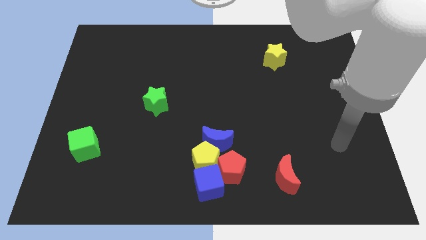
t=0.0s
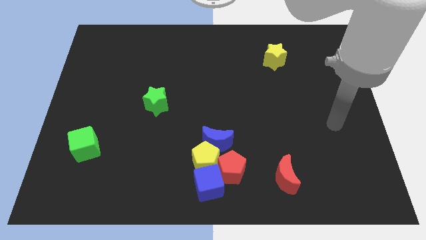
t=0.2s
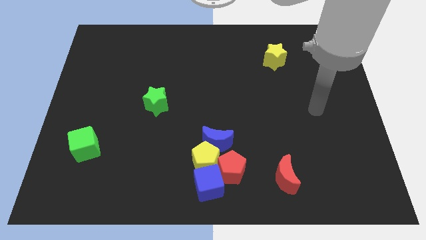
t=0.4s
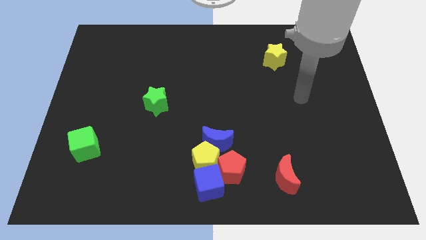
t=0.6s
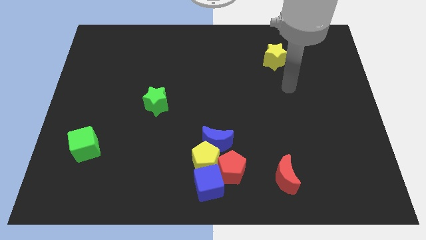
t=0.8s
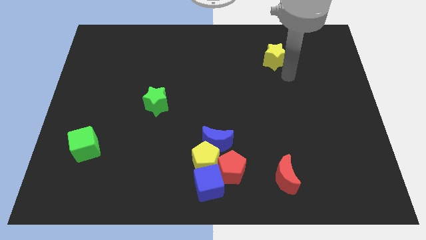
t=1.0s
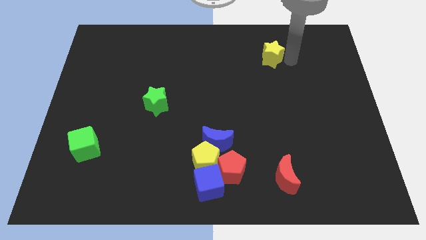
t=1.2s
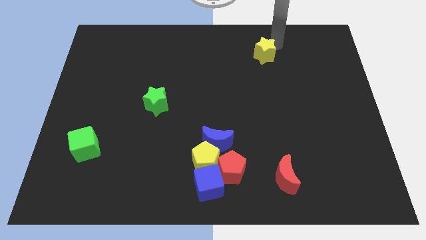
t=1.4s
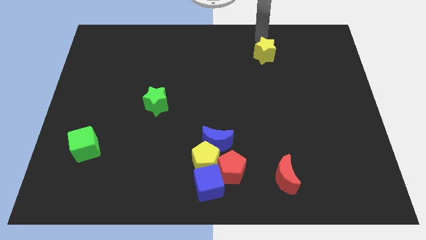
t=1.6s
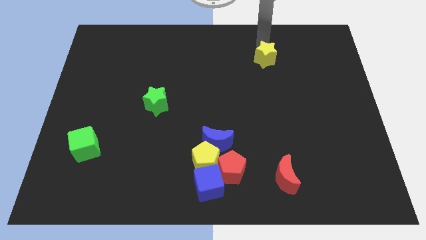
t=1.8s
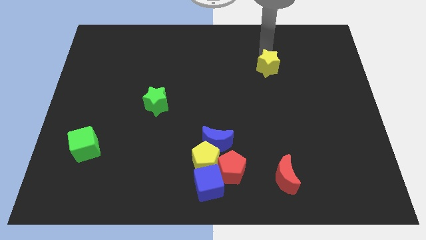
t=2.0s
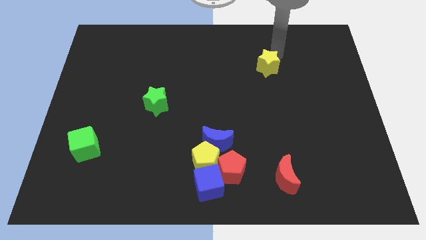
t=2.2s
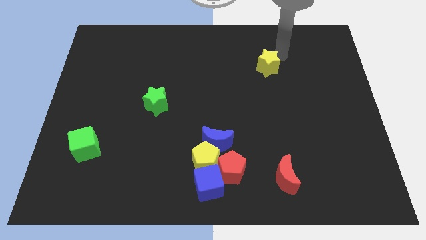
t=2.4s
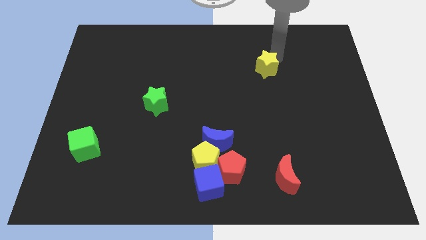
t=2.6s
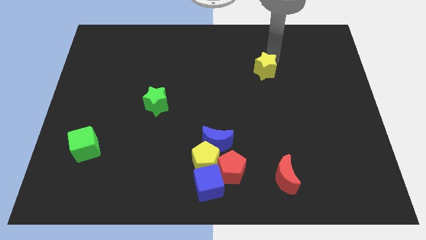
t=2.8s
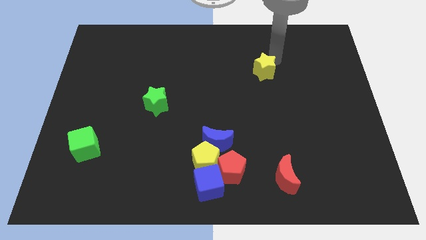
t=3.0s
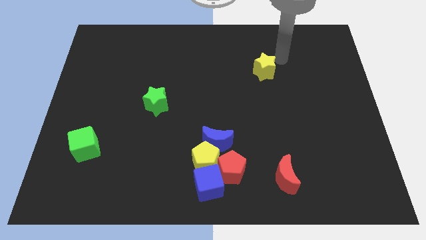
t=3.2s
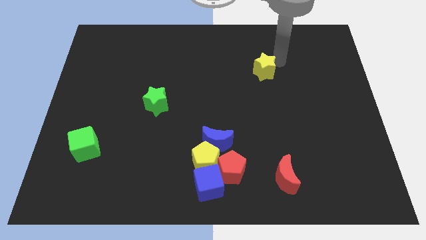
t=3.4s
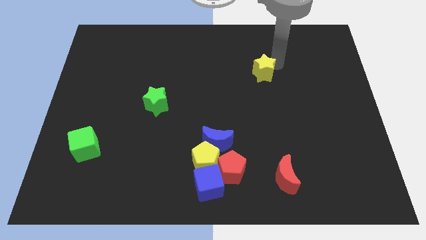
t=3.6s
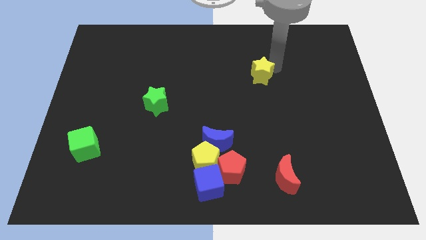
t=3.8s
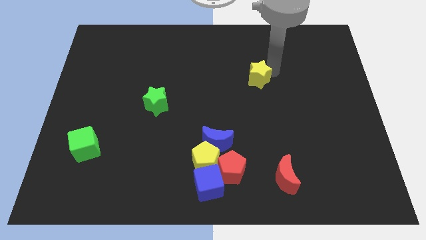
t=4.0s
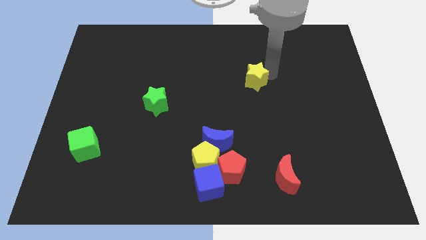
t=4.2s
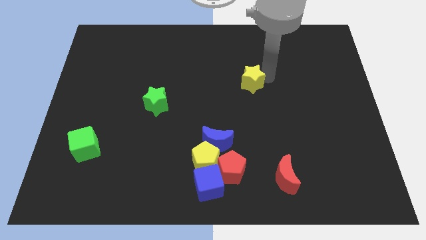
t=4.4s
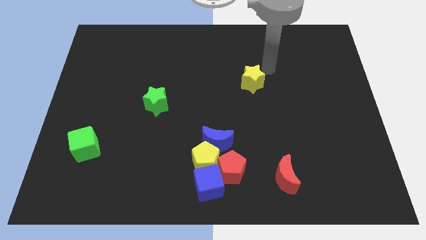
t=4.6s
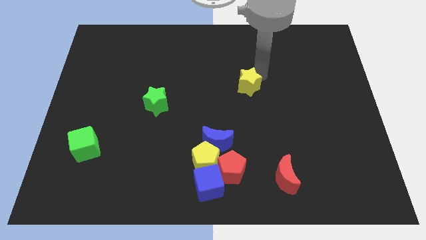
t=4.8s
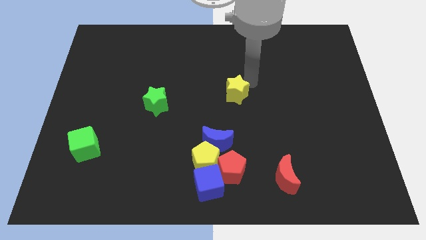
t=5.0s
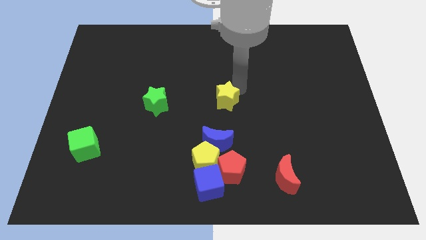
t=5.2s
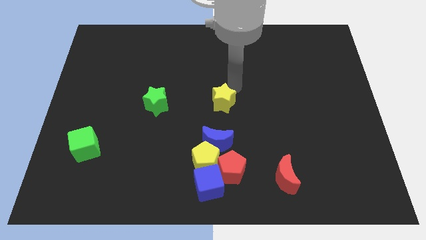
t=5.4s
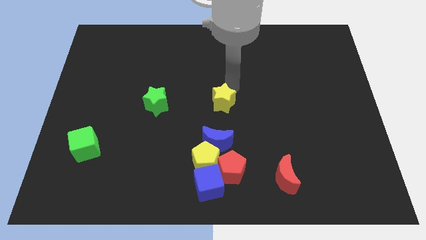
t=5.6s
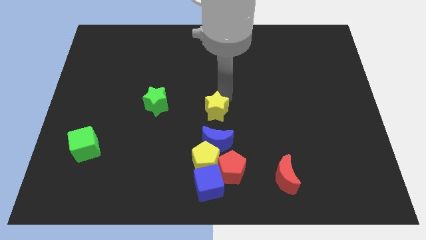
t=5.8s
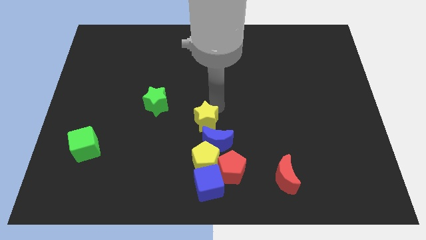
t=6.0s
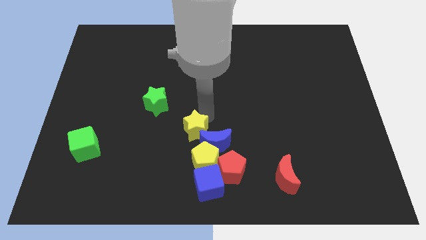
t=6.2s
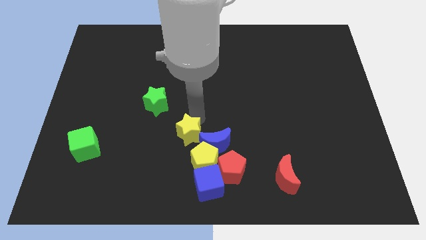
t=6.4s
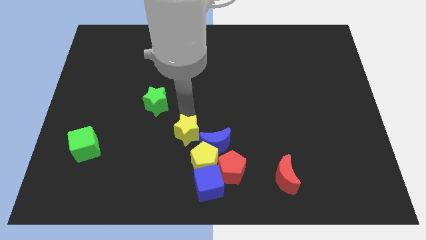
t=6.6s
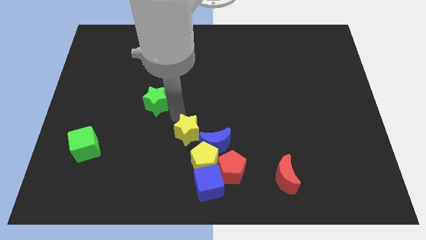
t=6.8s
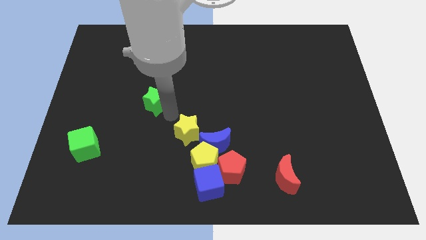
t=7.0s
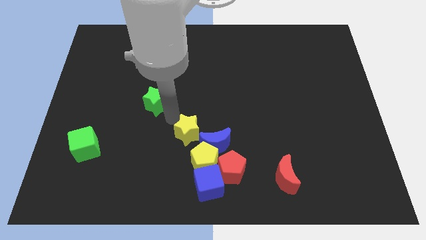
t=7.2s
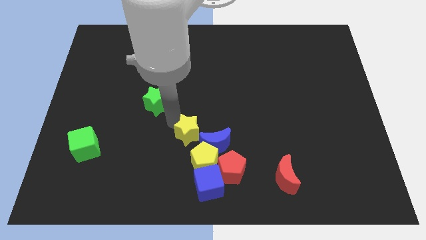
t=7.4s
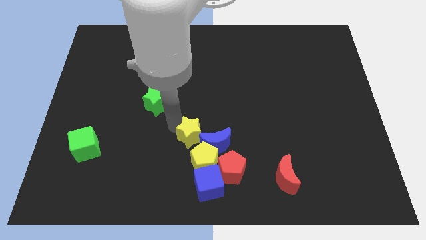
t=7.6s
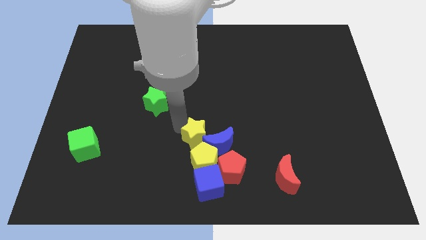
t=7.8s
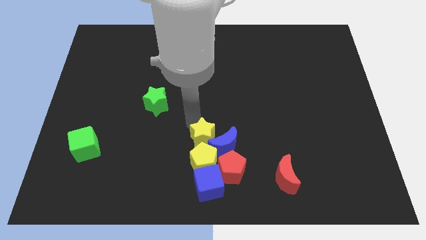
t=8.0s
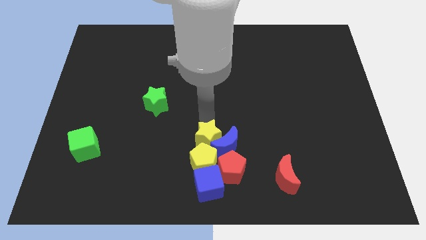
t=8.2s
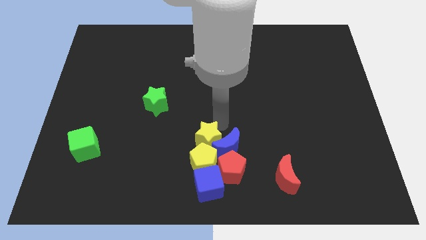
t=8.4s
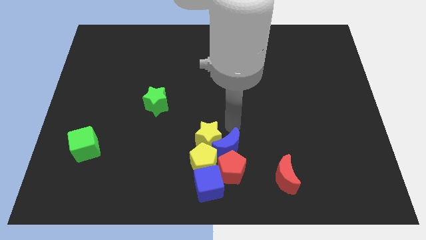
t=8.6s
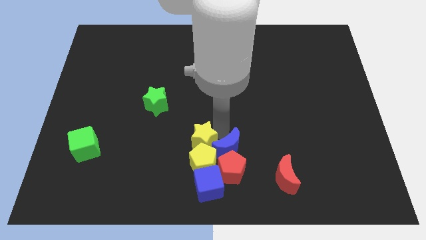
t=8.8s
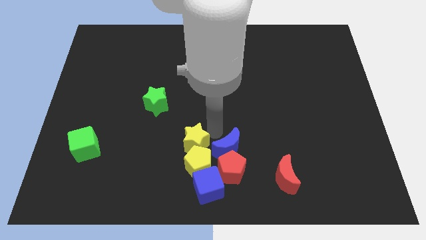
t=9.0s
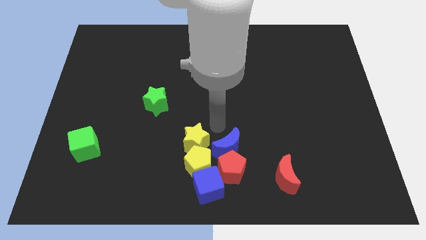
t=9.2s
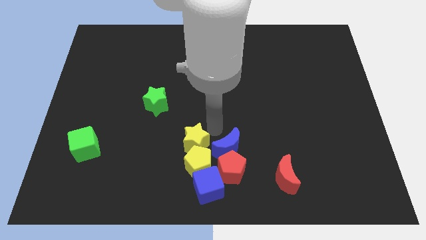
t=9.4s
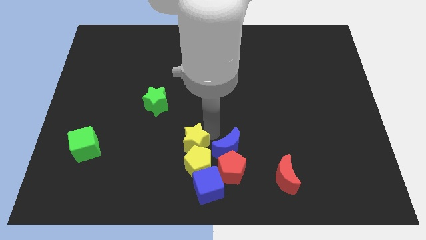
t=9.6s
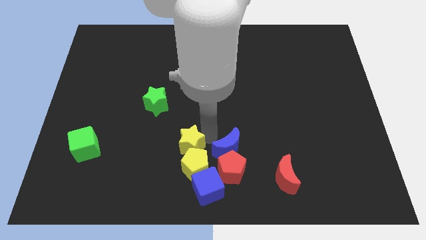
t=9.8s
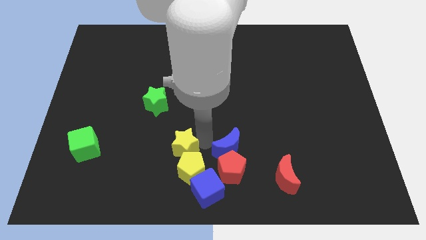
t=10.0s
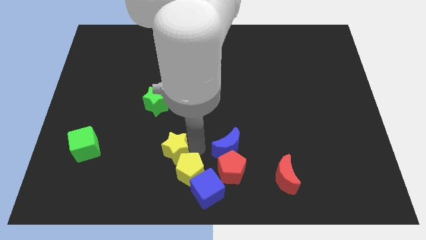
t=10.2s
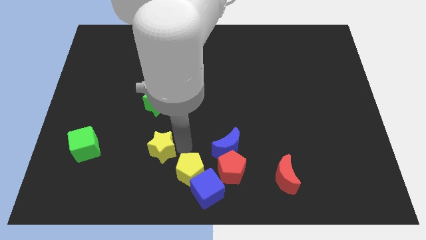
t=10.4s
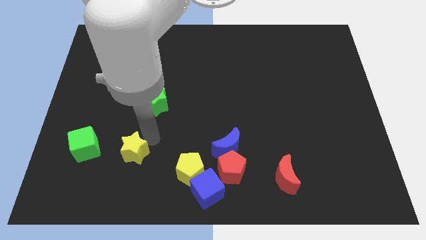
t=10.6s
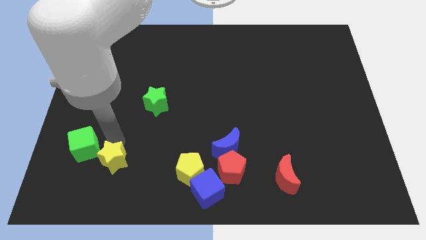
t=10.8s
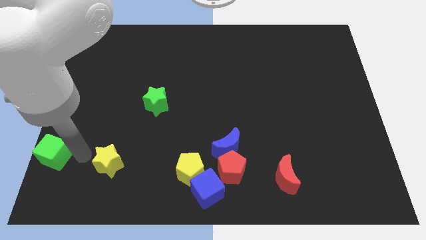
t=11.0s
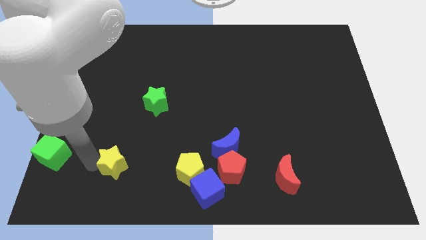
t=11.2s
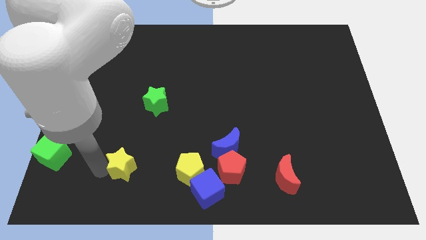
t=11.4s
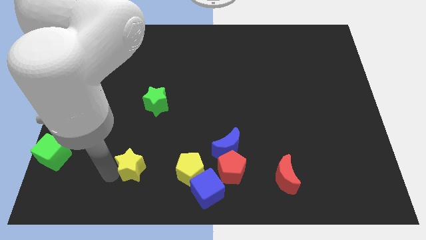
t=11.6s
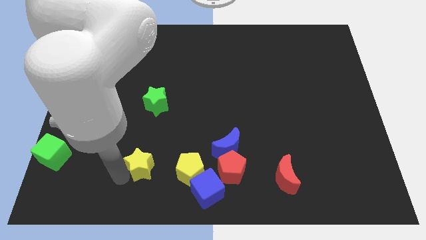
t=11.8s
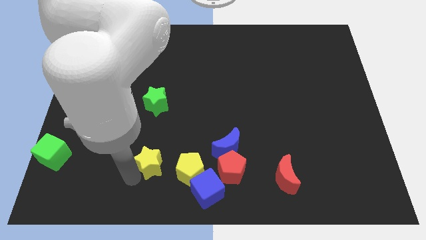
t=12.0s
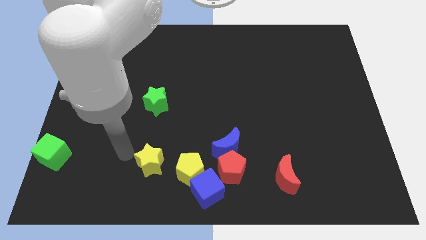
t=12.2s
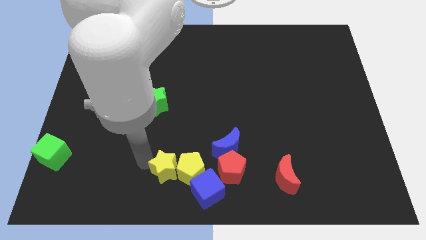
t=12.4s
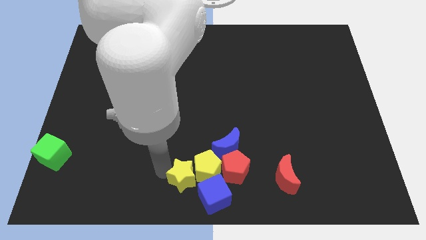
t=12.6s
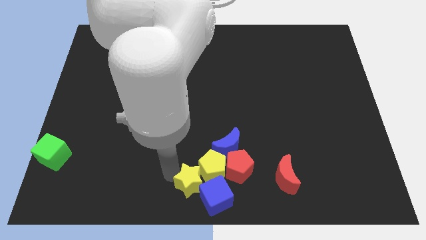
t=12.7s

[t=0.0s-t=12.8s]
slide the yellow star next to the blue cube

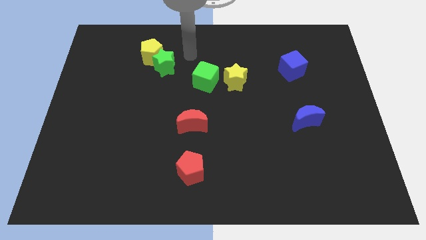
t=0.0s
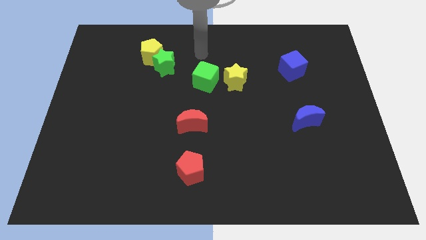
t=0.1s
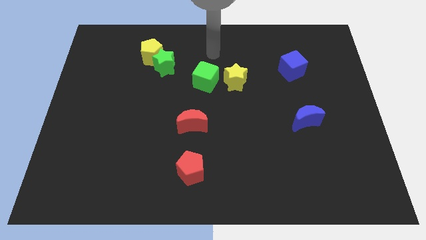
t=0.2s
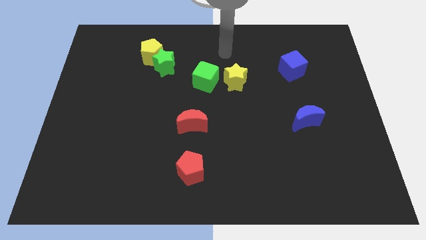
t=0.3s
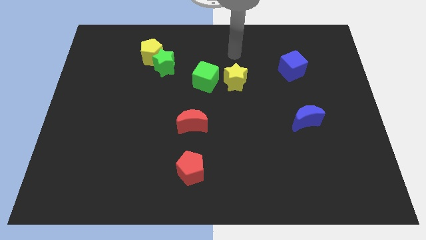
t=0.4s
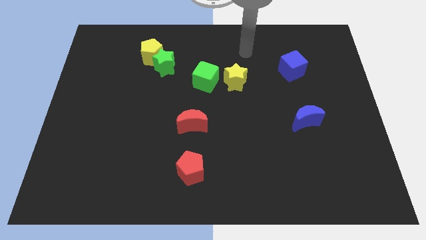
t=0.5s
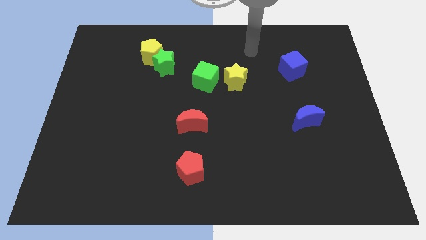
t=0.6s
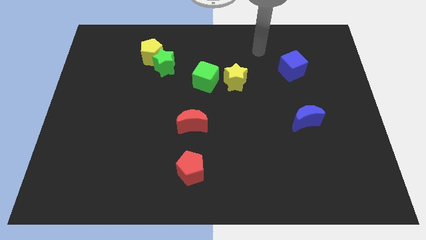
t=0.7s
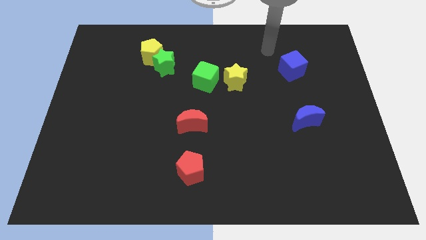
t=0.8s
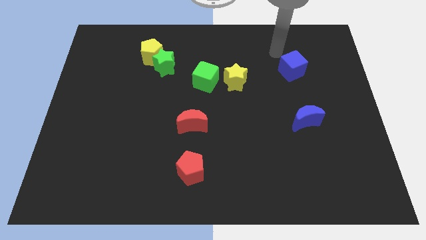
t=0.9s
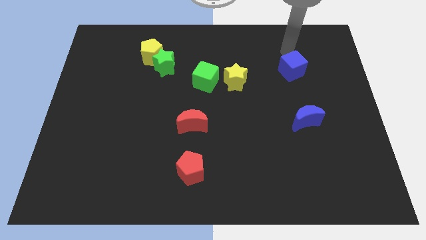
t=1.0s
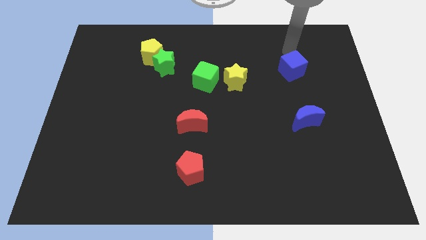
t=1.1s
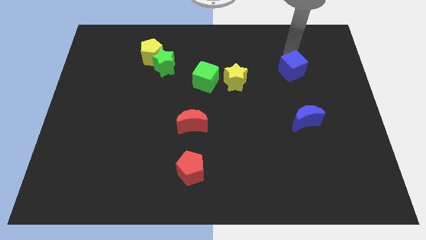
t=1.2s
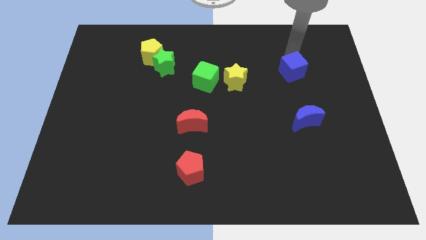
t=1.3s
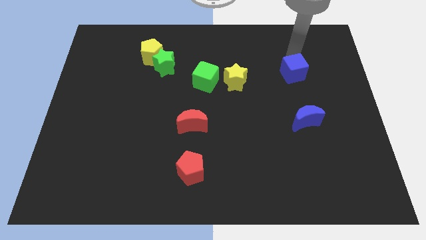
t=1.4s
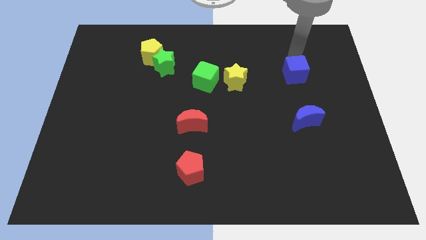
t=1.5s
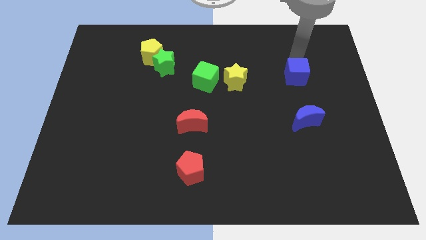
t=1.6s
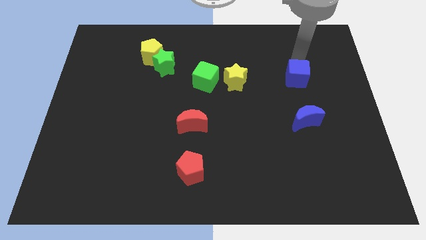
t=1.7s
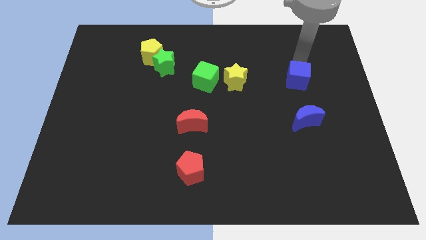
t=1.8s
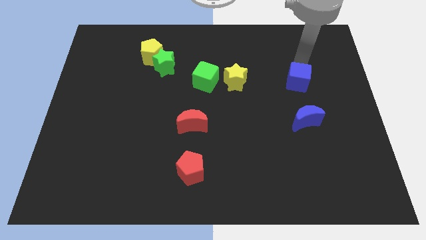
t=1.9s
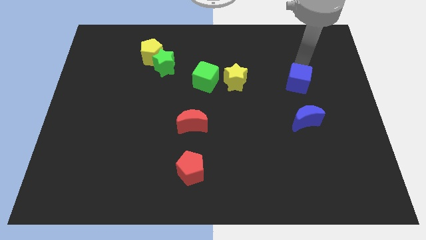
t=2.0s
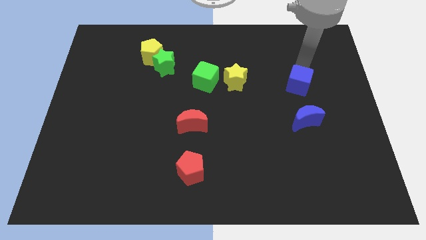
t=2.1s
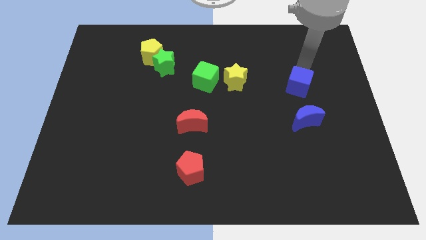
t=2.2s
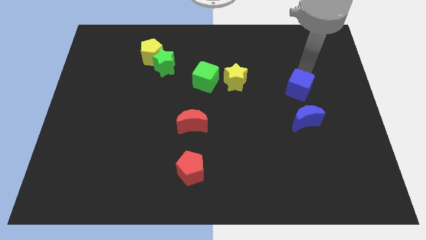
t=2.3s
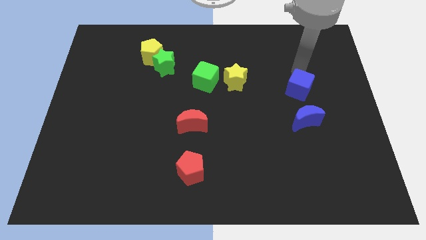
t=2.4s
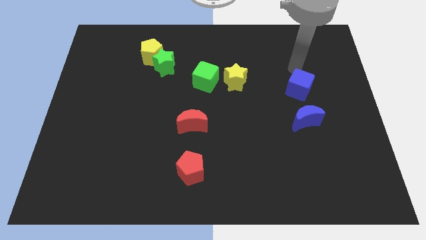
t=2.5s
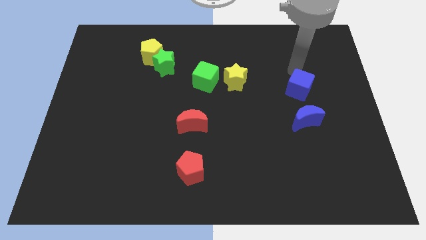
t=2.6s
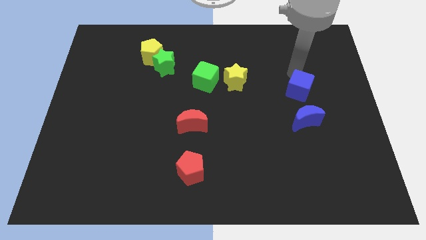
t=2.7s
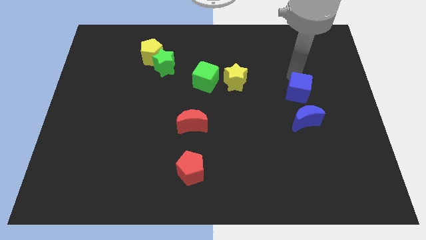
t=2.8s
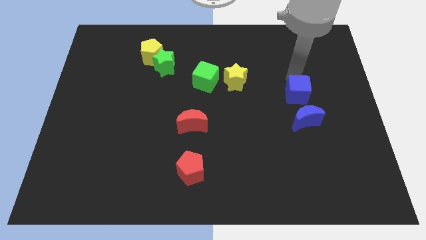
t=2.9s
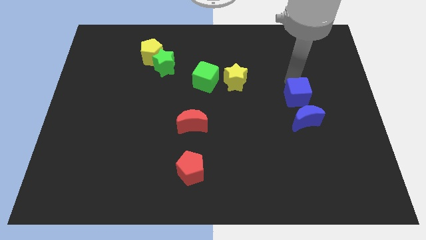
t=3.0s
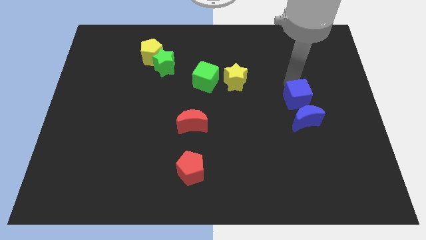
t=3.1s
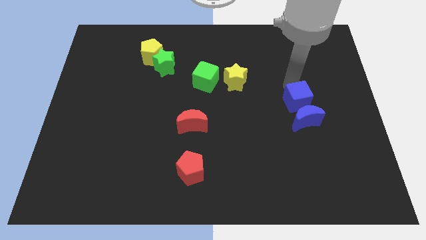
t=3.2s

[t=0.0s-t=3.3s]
slide the blue cube to the blue moon
